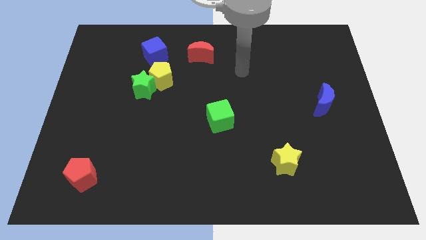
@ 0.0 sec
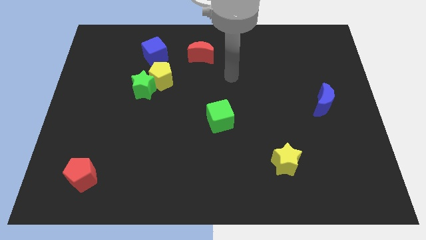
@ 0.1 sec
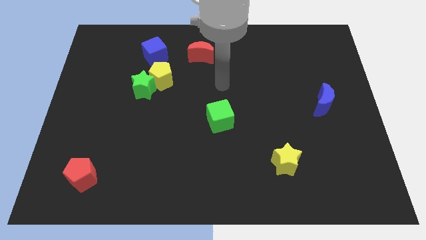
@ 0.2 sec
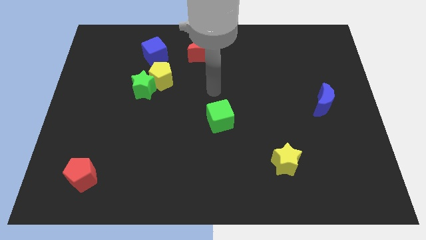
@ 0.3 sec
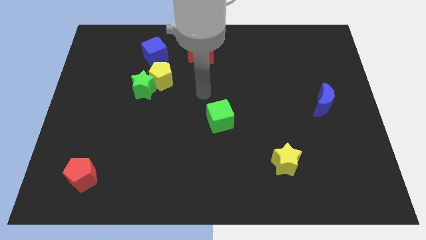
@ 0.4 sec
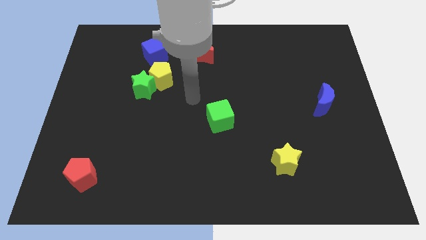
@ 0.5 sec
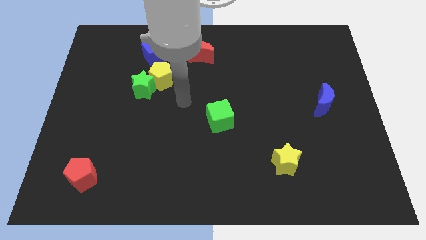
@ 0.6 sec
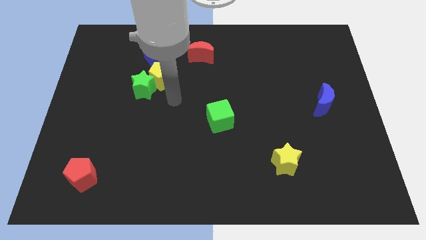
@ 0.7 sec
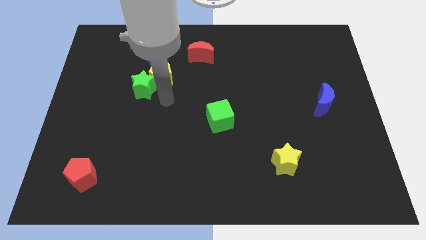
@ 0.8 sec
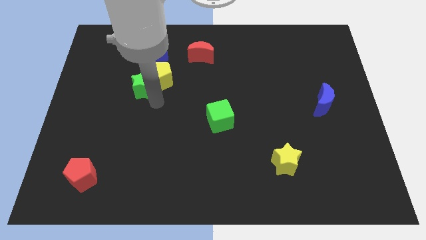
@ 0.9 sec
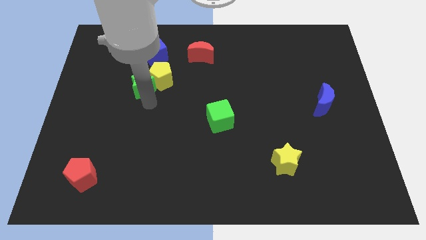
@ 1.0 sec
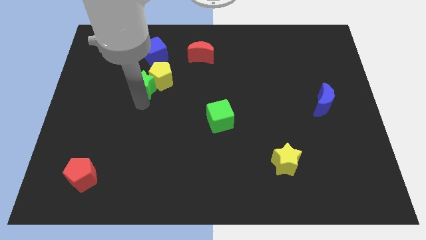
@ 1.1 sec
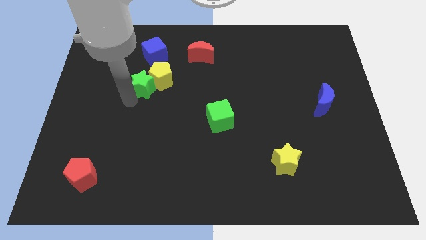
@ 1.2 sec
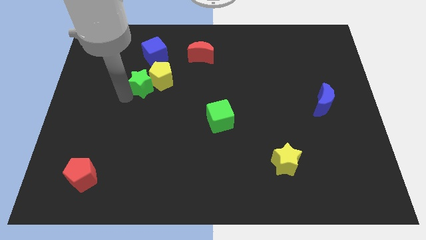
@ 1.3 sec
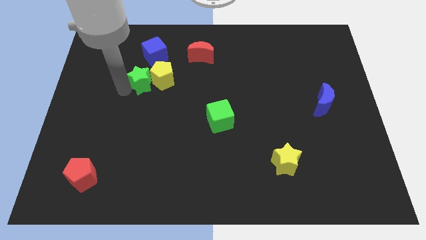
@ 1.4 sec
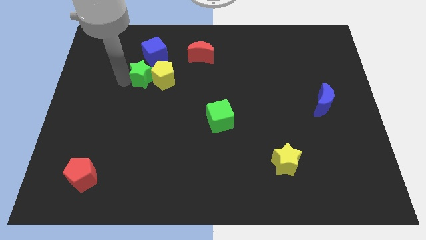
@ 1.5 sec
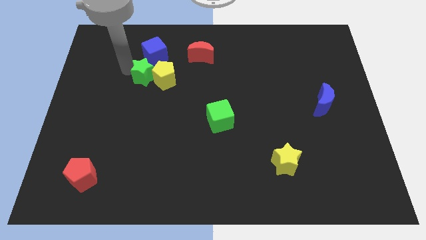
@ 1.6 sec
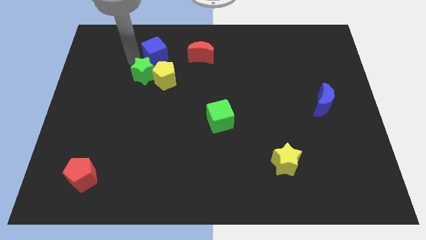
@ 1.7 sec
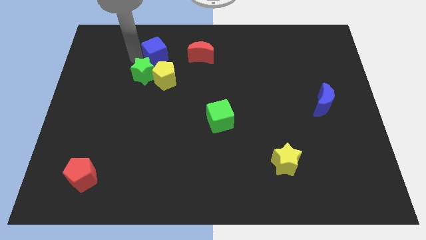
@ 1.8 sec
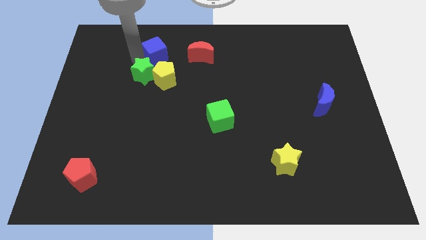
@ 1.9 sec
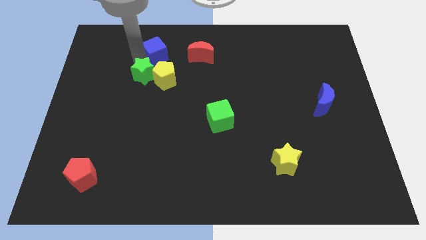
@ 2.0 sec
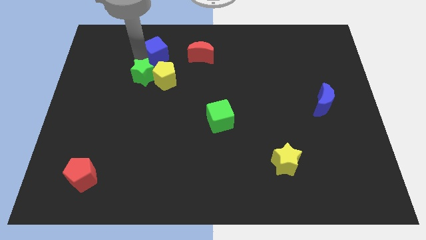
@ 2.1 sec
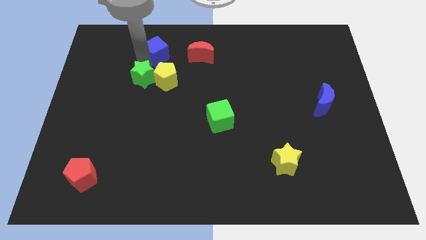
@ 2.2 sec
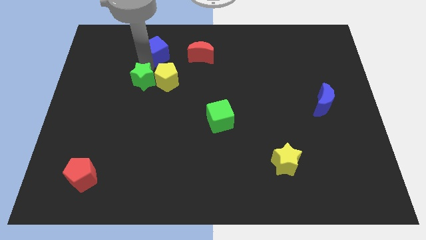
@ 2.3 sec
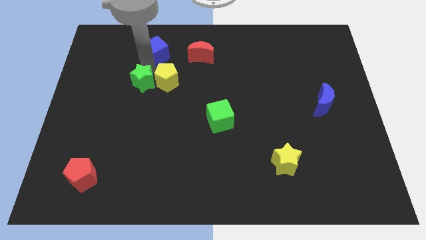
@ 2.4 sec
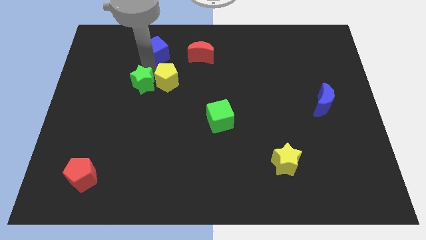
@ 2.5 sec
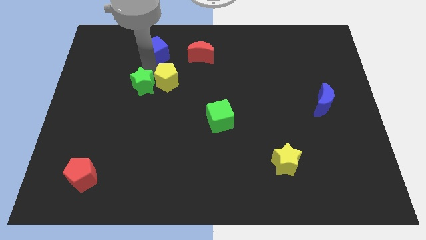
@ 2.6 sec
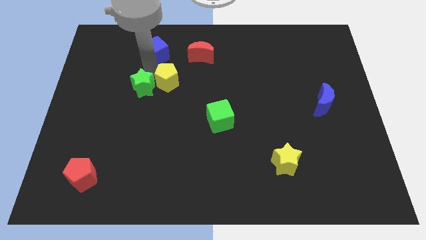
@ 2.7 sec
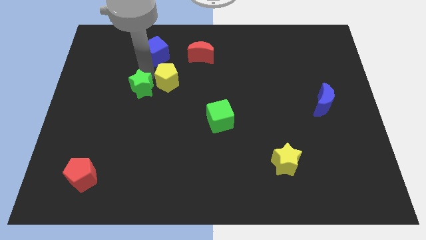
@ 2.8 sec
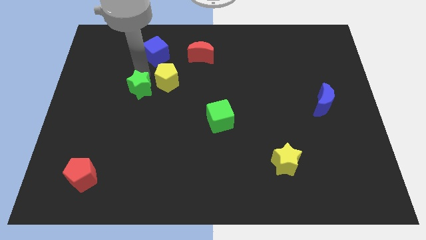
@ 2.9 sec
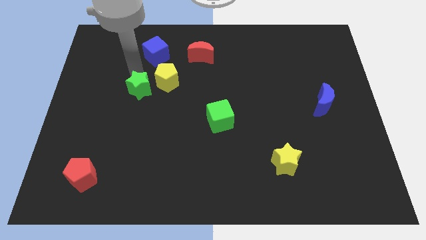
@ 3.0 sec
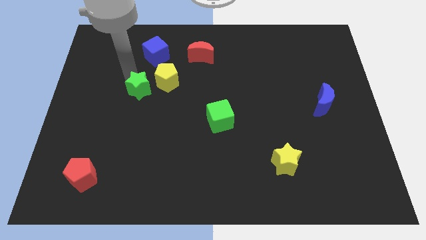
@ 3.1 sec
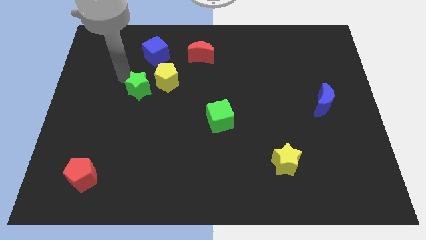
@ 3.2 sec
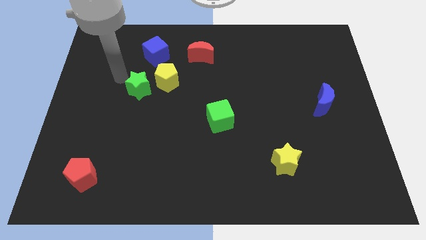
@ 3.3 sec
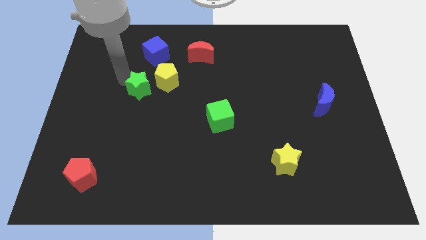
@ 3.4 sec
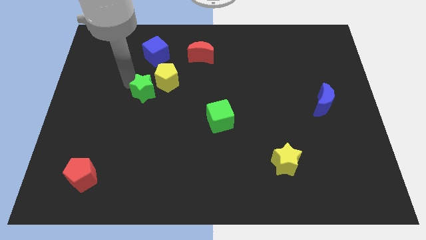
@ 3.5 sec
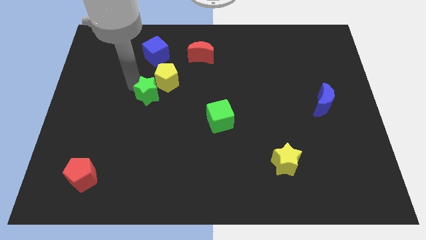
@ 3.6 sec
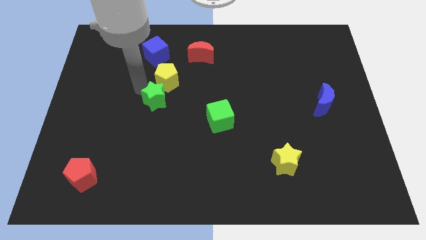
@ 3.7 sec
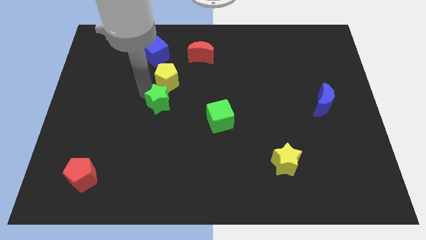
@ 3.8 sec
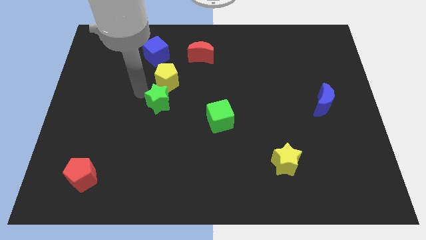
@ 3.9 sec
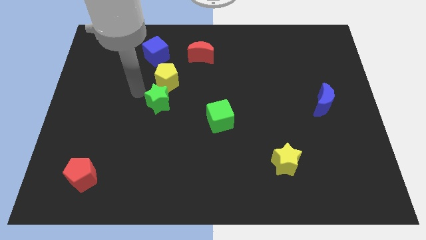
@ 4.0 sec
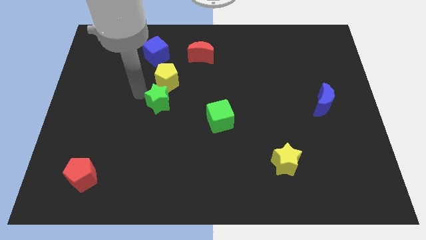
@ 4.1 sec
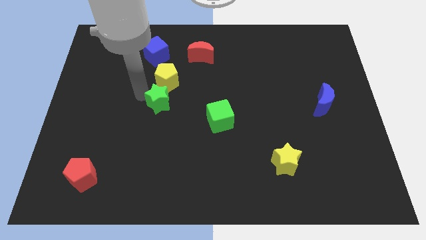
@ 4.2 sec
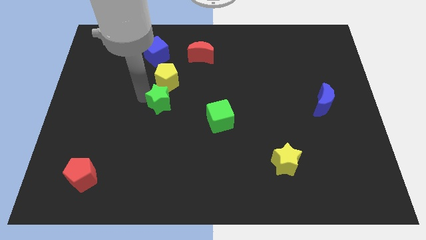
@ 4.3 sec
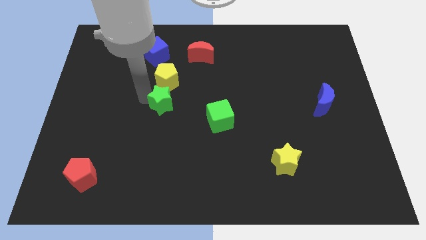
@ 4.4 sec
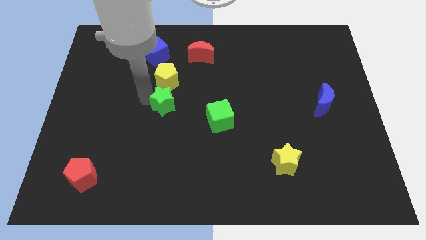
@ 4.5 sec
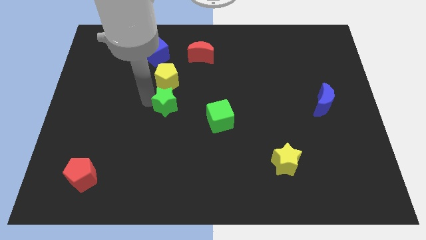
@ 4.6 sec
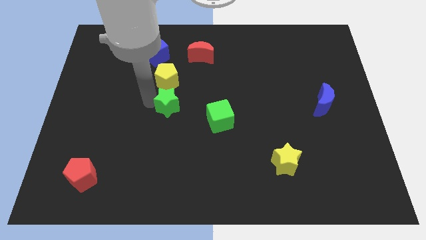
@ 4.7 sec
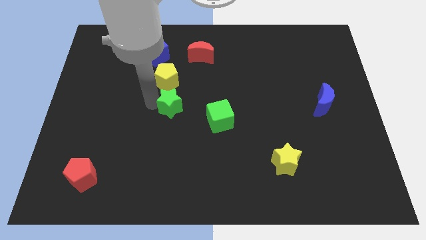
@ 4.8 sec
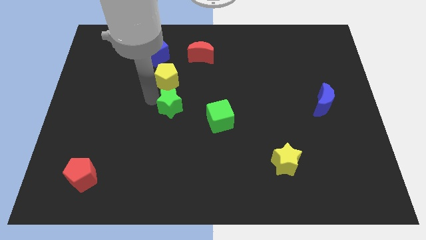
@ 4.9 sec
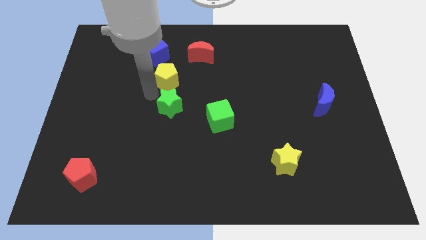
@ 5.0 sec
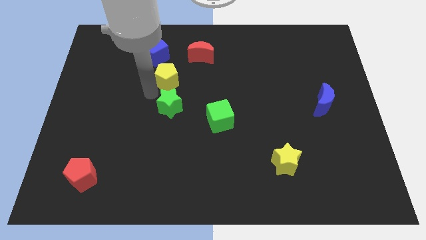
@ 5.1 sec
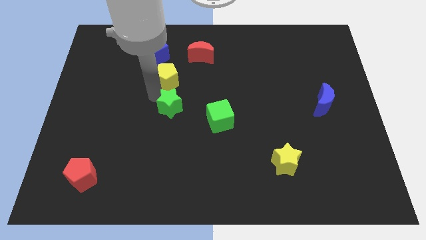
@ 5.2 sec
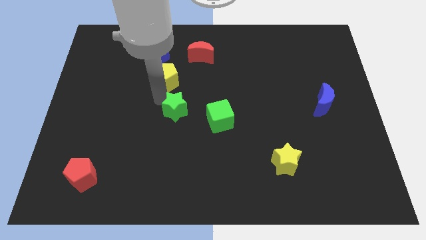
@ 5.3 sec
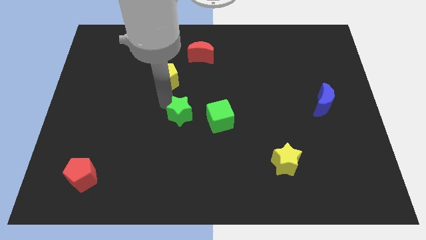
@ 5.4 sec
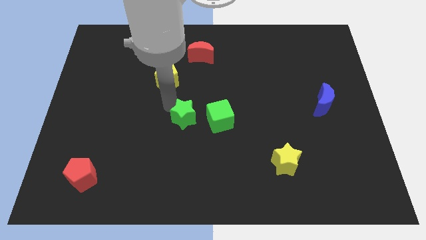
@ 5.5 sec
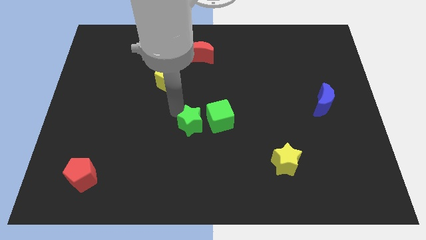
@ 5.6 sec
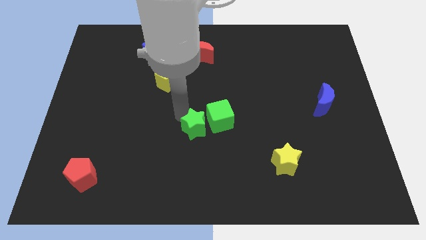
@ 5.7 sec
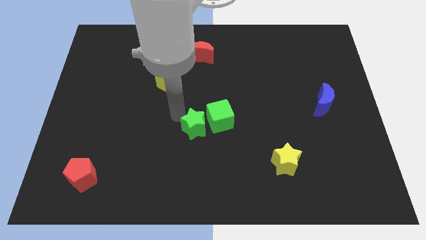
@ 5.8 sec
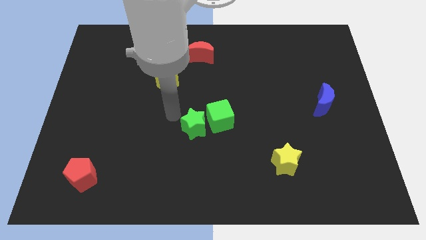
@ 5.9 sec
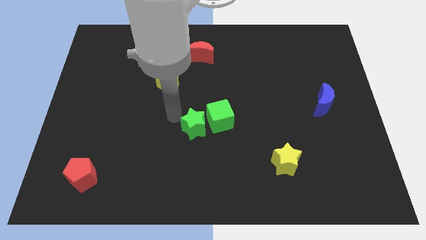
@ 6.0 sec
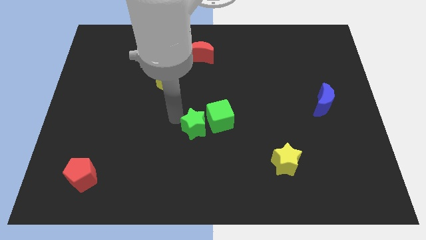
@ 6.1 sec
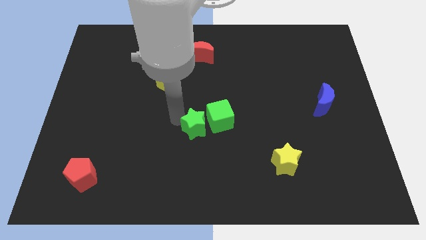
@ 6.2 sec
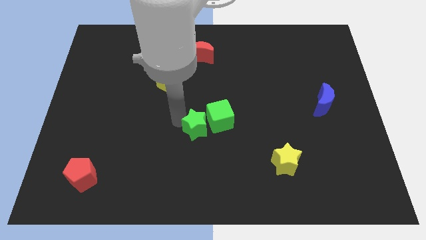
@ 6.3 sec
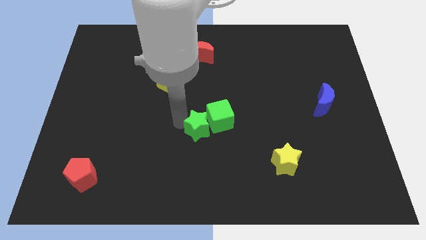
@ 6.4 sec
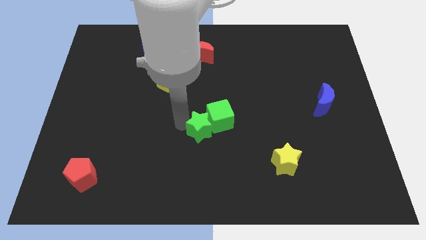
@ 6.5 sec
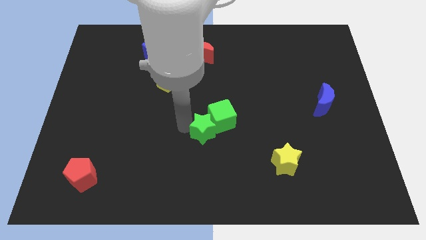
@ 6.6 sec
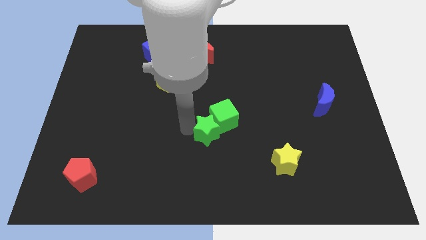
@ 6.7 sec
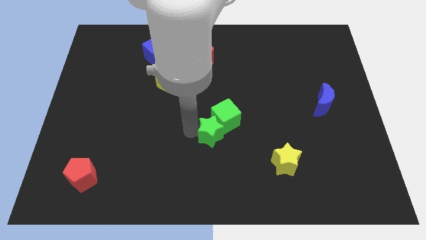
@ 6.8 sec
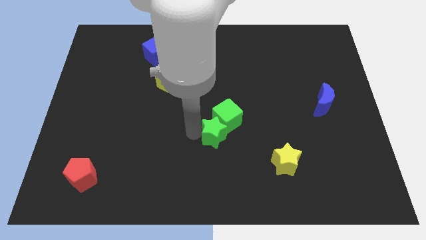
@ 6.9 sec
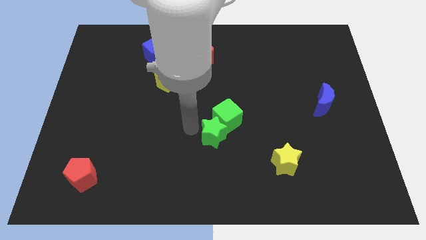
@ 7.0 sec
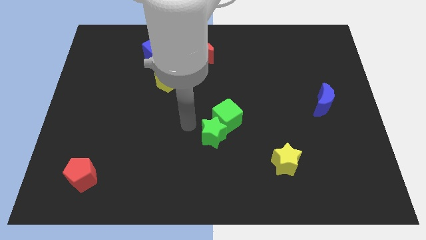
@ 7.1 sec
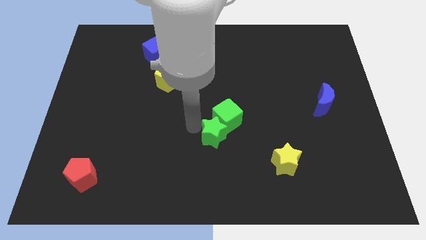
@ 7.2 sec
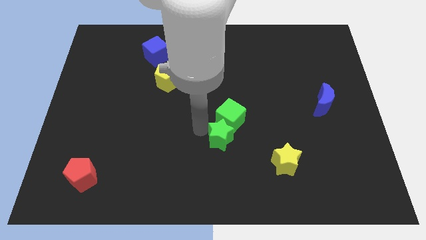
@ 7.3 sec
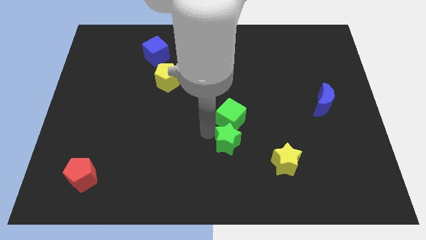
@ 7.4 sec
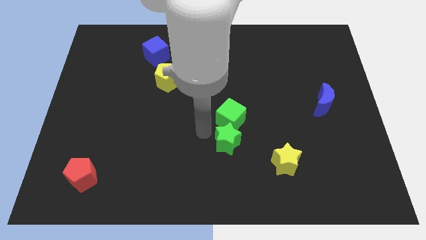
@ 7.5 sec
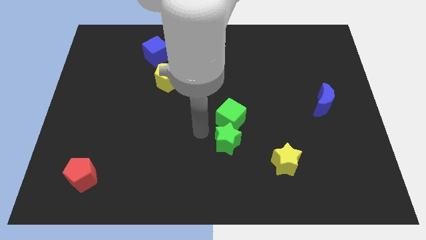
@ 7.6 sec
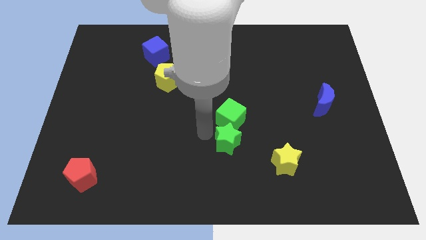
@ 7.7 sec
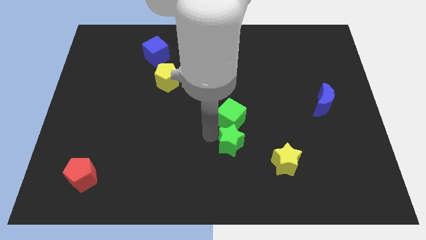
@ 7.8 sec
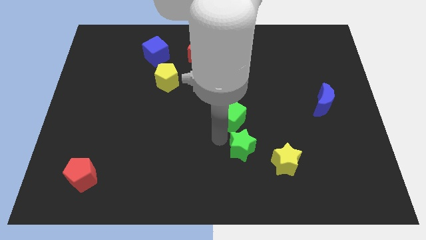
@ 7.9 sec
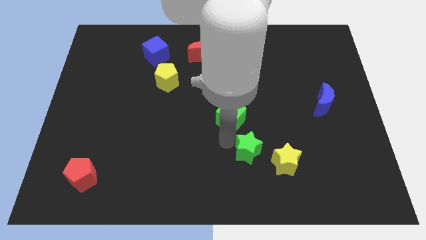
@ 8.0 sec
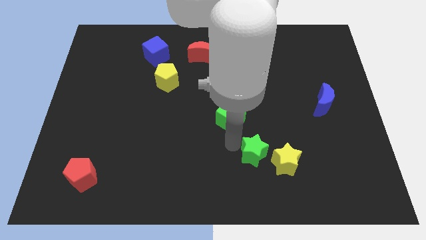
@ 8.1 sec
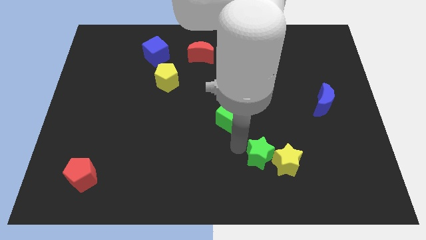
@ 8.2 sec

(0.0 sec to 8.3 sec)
move the green star towards the yellow star
